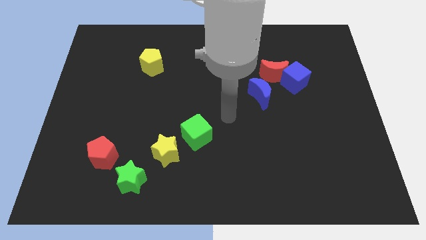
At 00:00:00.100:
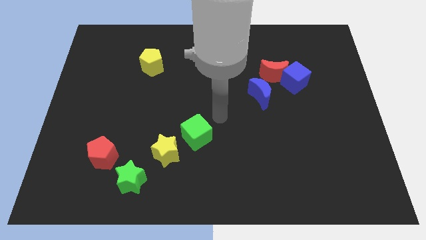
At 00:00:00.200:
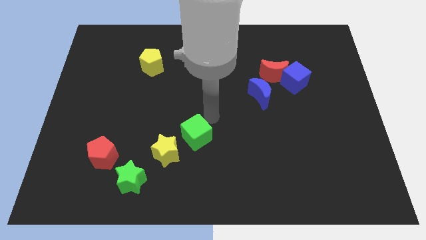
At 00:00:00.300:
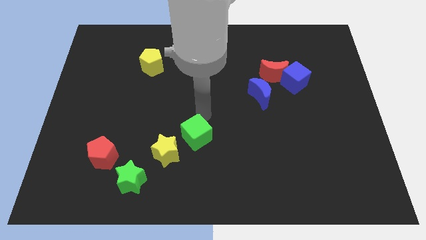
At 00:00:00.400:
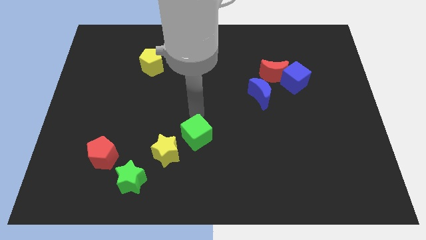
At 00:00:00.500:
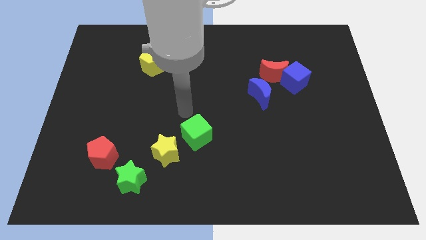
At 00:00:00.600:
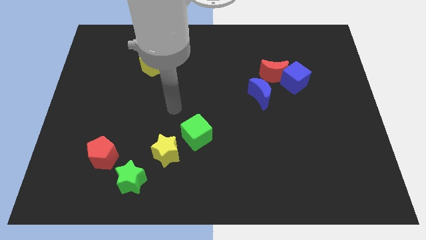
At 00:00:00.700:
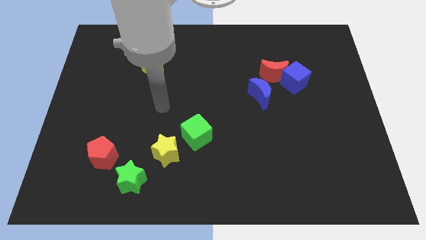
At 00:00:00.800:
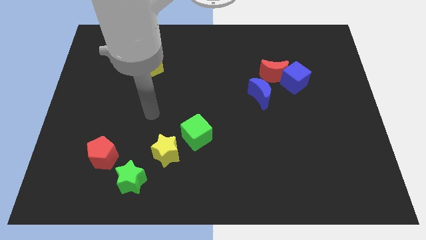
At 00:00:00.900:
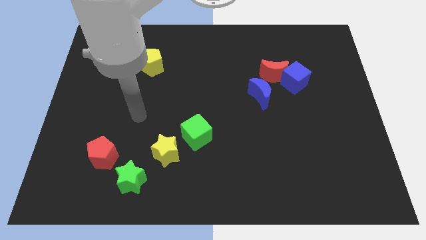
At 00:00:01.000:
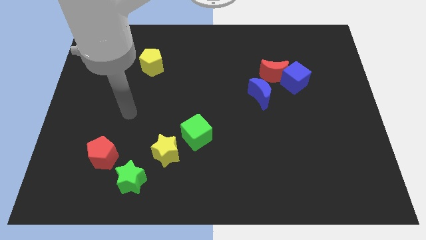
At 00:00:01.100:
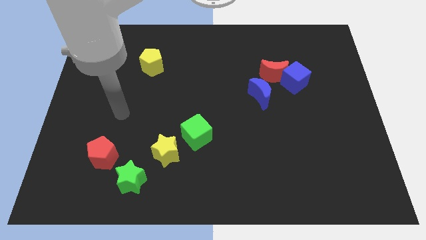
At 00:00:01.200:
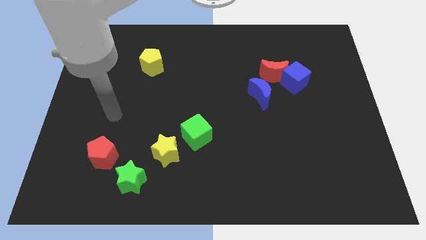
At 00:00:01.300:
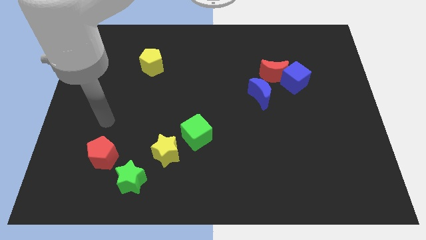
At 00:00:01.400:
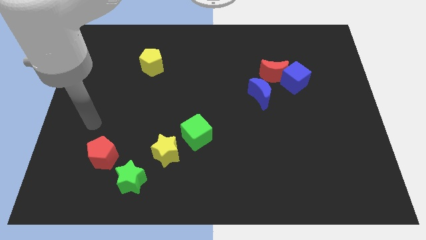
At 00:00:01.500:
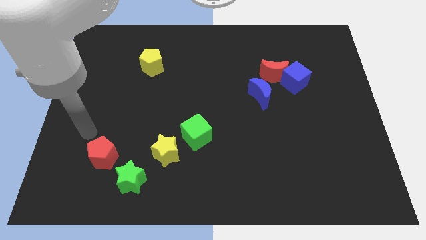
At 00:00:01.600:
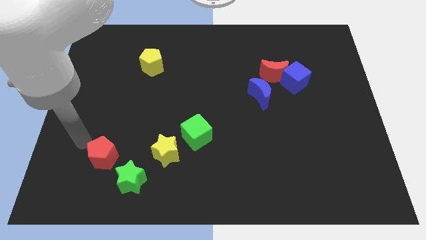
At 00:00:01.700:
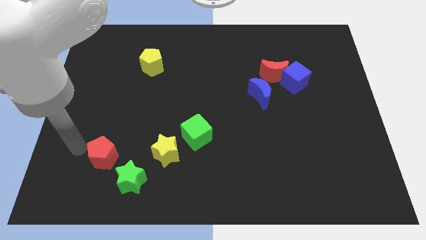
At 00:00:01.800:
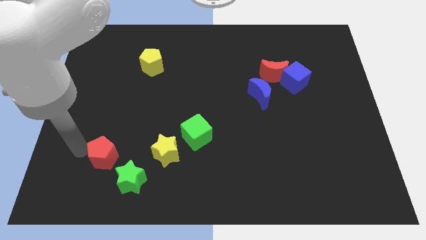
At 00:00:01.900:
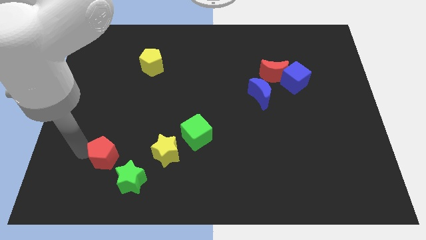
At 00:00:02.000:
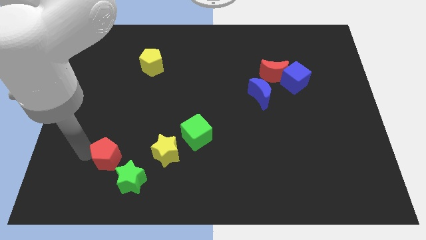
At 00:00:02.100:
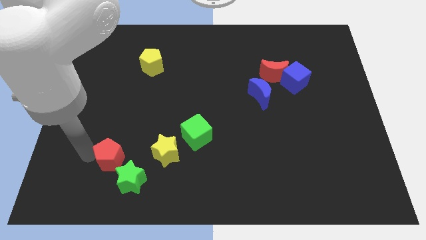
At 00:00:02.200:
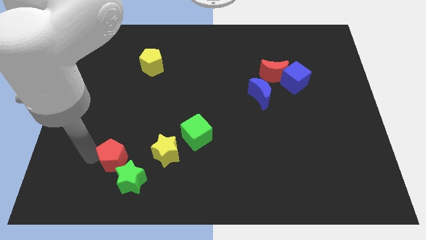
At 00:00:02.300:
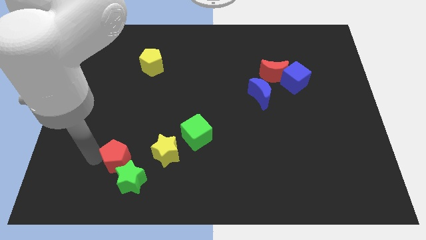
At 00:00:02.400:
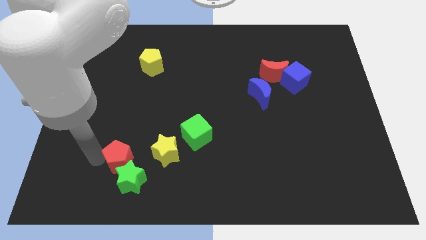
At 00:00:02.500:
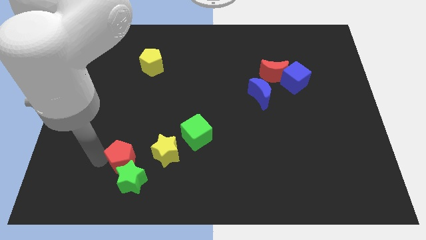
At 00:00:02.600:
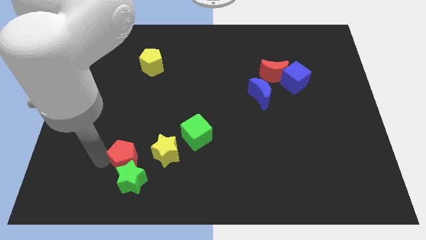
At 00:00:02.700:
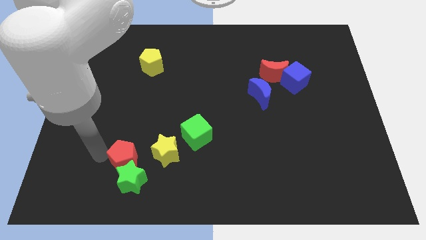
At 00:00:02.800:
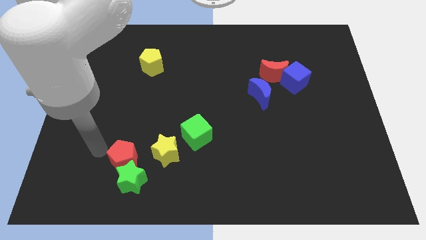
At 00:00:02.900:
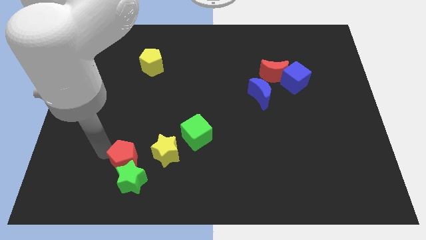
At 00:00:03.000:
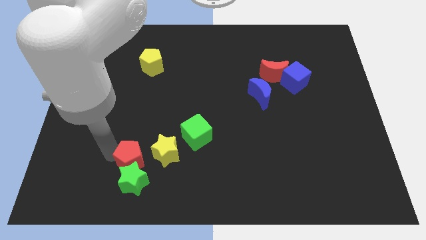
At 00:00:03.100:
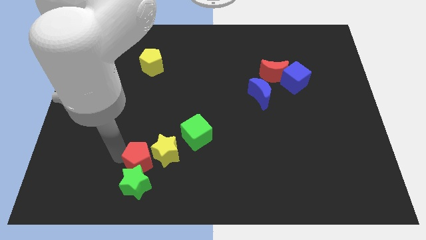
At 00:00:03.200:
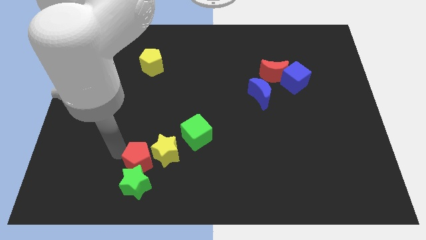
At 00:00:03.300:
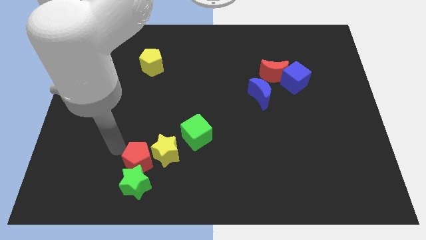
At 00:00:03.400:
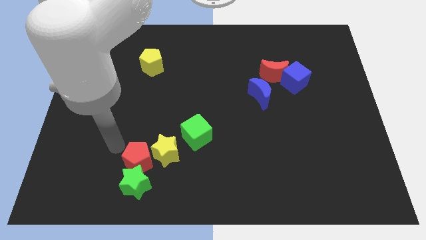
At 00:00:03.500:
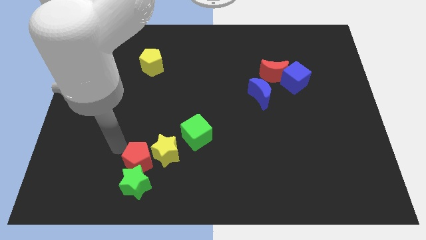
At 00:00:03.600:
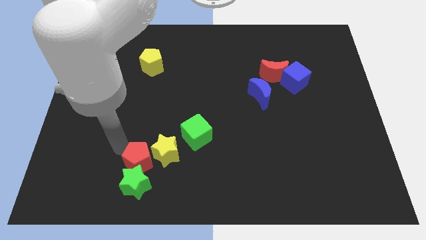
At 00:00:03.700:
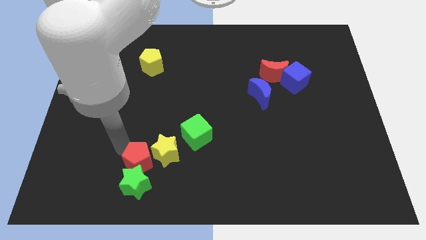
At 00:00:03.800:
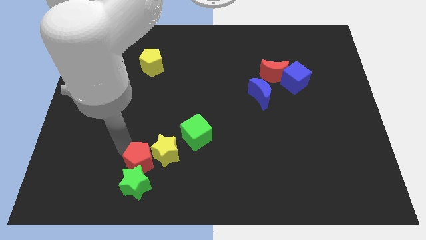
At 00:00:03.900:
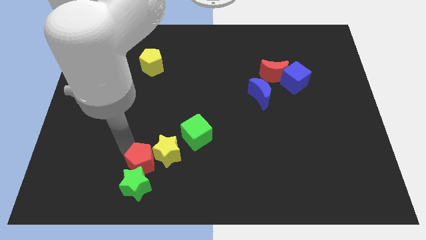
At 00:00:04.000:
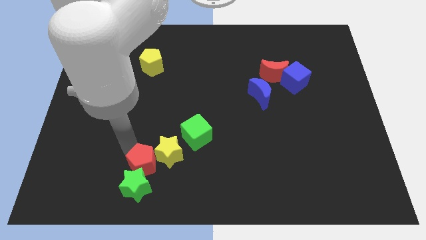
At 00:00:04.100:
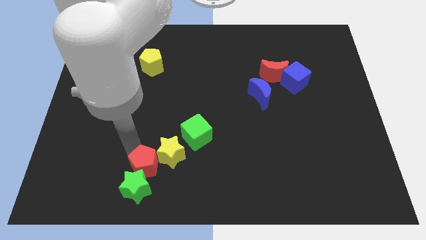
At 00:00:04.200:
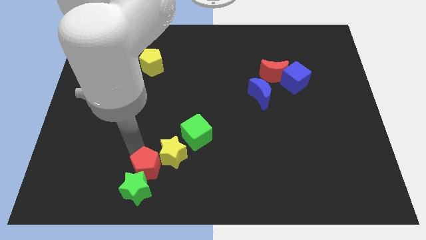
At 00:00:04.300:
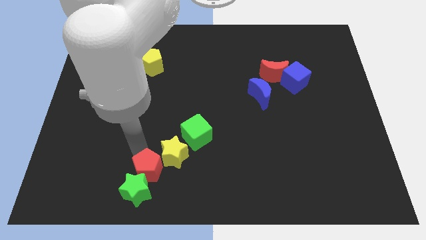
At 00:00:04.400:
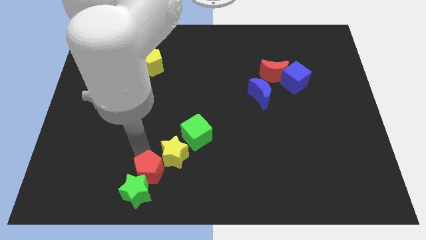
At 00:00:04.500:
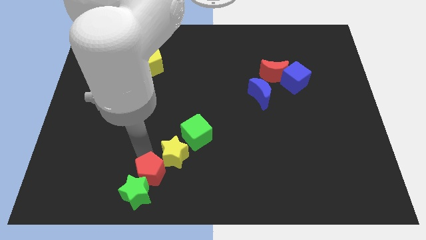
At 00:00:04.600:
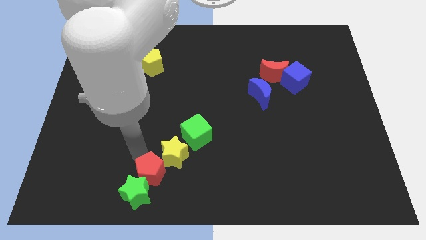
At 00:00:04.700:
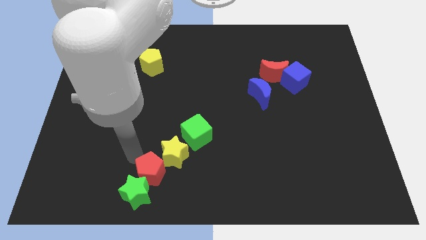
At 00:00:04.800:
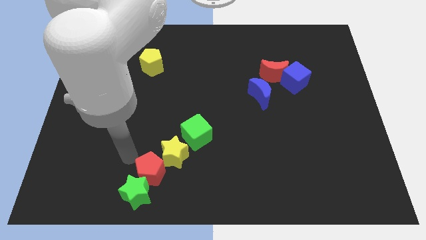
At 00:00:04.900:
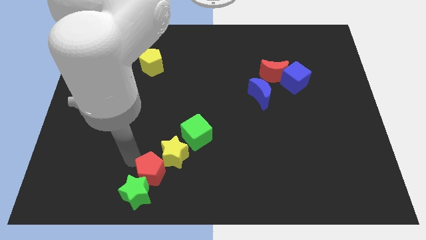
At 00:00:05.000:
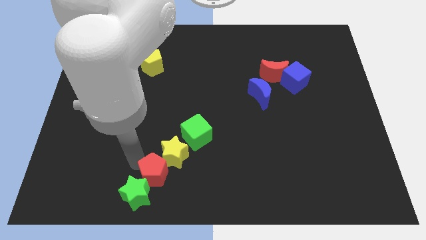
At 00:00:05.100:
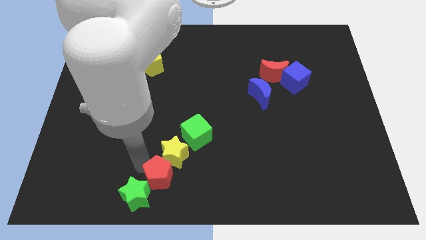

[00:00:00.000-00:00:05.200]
move the red pentagon to the bottom side

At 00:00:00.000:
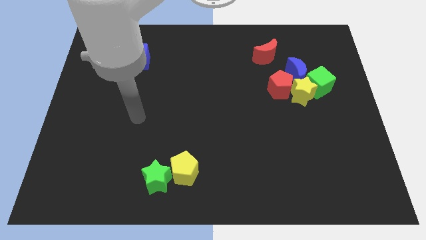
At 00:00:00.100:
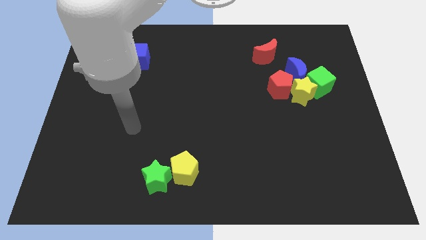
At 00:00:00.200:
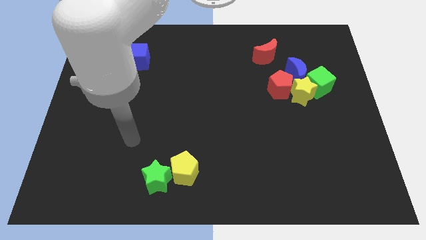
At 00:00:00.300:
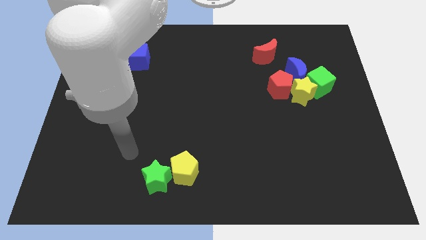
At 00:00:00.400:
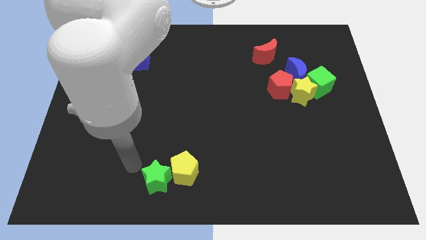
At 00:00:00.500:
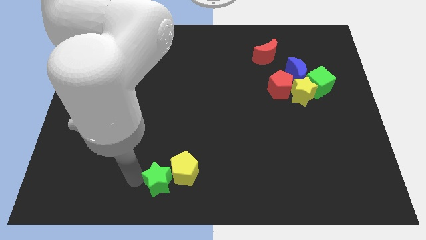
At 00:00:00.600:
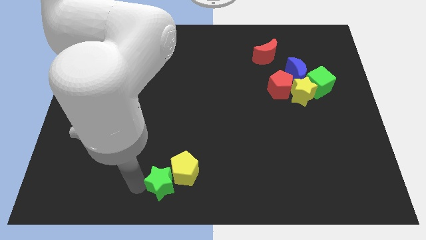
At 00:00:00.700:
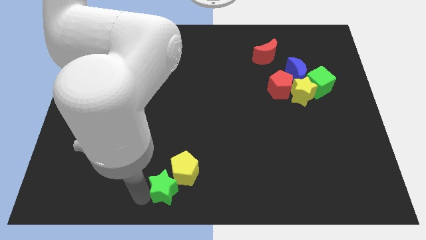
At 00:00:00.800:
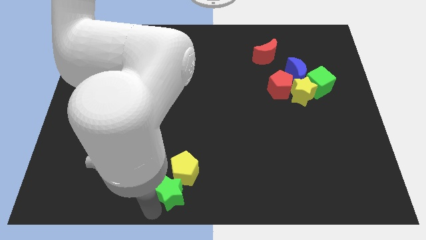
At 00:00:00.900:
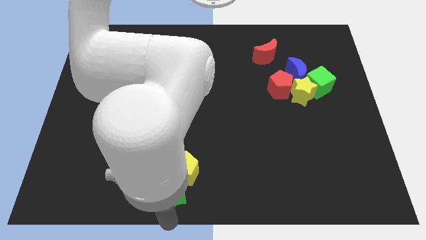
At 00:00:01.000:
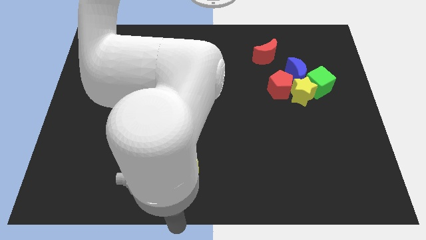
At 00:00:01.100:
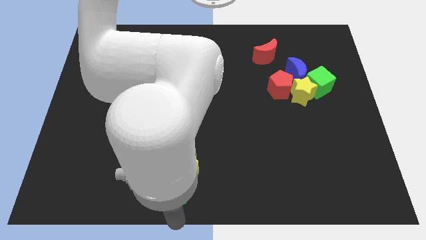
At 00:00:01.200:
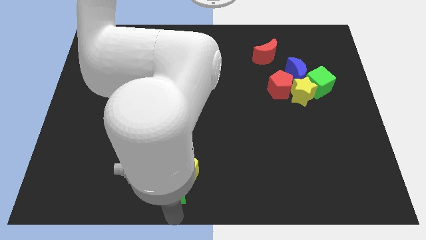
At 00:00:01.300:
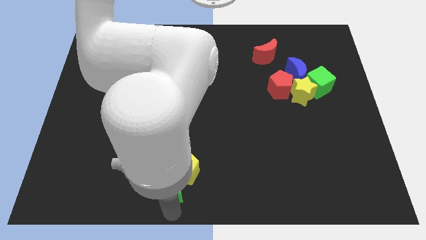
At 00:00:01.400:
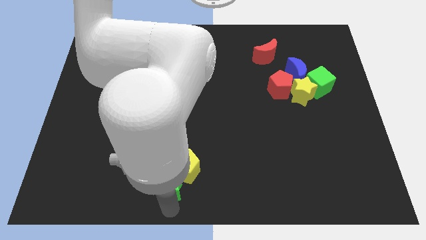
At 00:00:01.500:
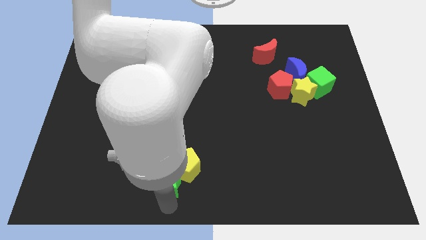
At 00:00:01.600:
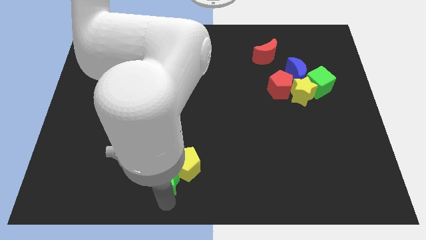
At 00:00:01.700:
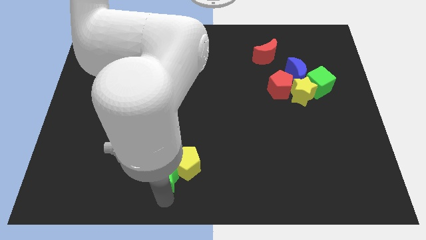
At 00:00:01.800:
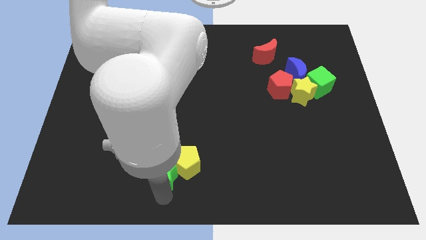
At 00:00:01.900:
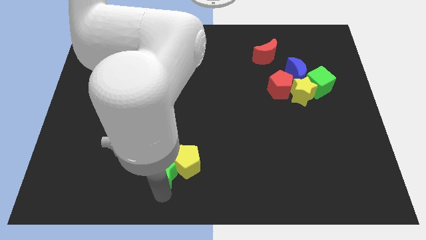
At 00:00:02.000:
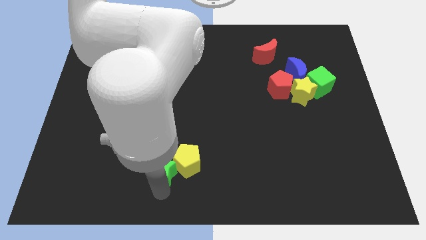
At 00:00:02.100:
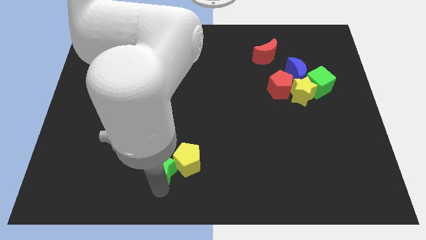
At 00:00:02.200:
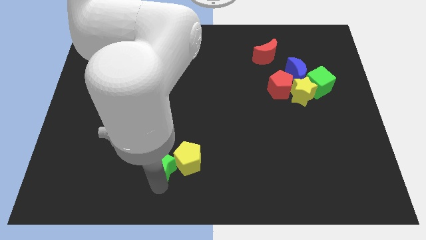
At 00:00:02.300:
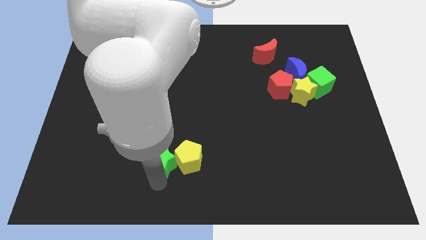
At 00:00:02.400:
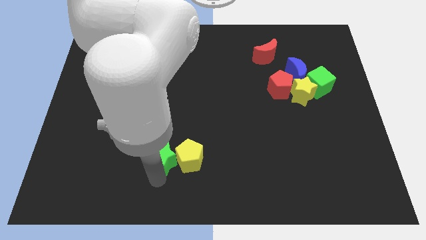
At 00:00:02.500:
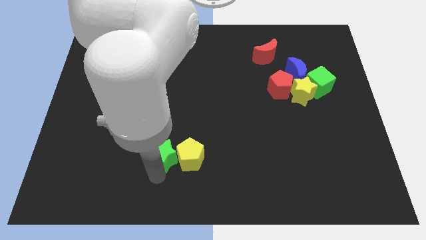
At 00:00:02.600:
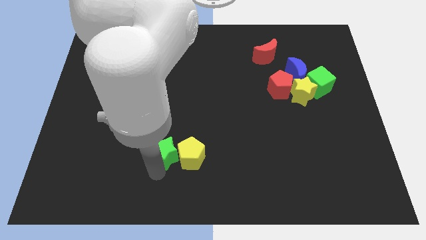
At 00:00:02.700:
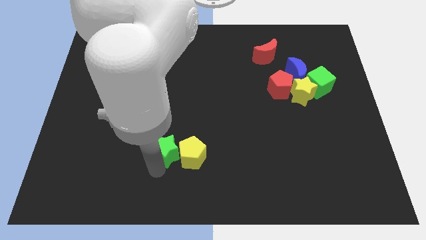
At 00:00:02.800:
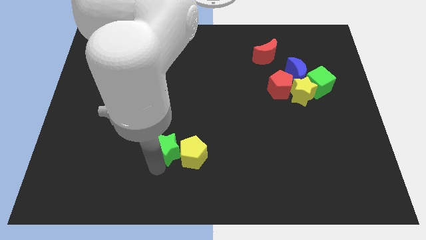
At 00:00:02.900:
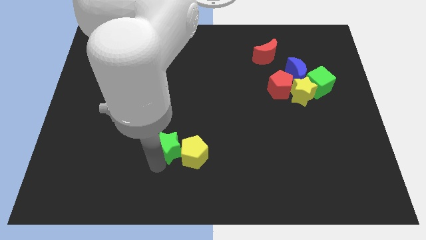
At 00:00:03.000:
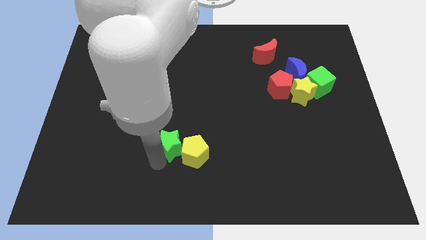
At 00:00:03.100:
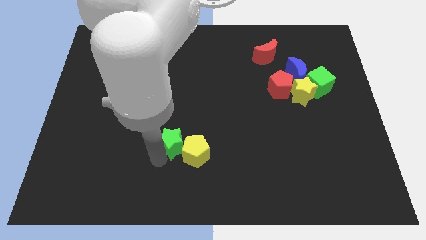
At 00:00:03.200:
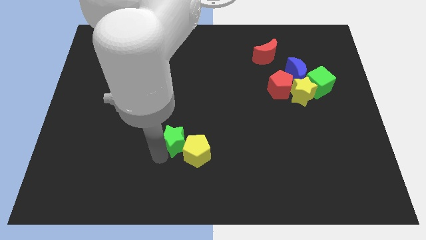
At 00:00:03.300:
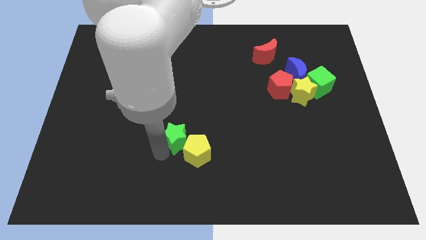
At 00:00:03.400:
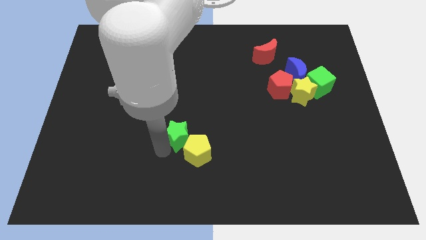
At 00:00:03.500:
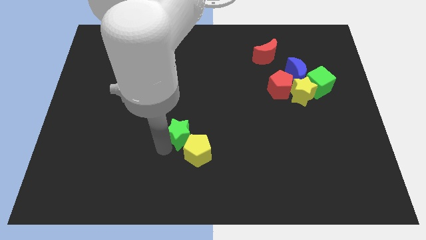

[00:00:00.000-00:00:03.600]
push the green star to the center of the board
